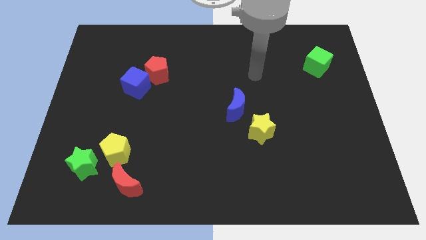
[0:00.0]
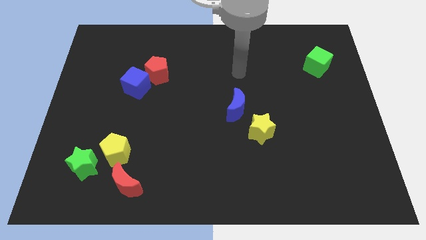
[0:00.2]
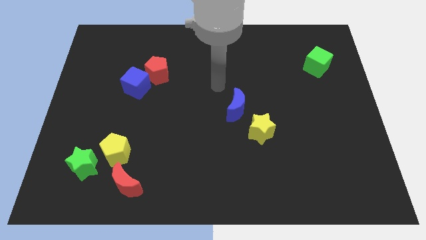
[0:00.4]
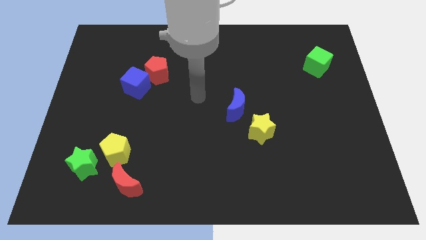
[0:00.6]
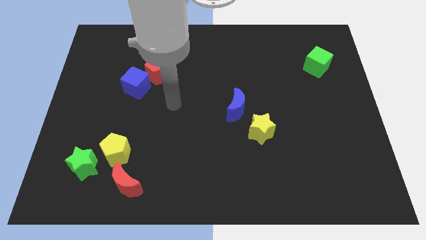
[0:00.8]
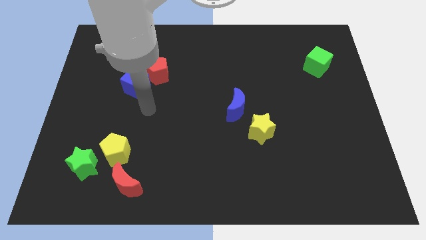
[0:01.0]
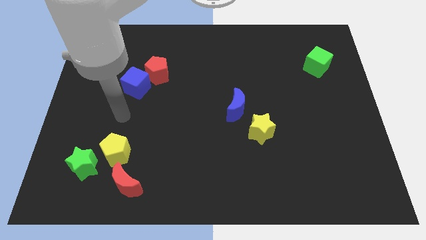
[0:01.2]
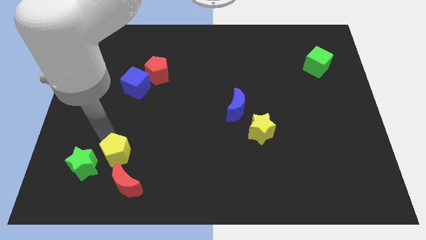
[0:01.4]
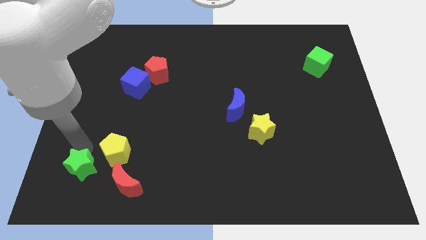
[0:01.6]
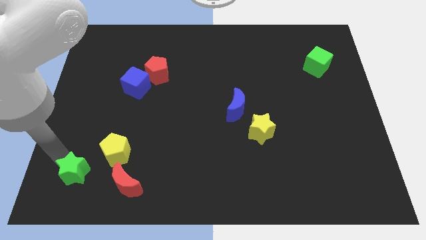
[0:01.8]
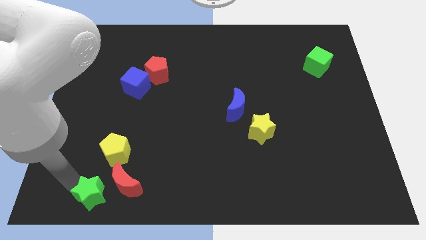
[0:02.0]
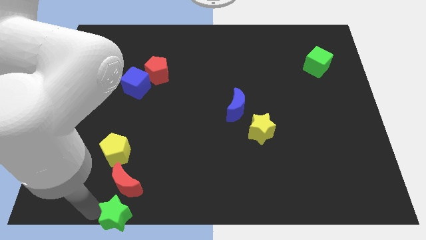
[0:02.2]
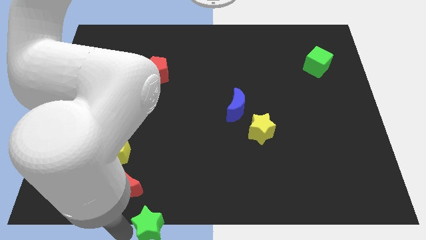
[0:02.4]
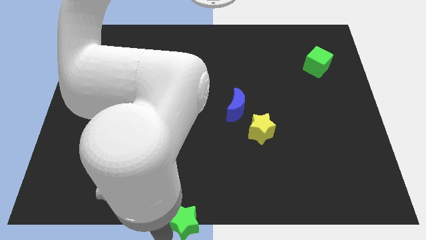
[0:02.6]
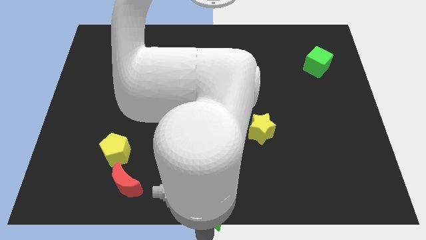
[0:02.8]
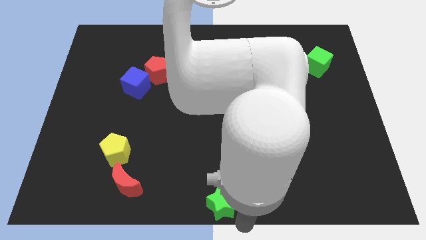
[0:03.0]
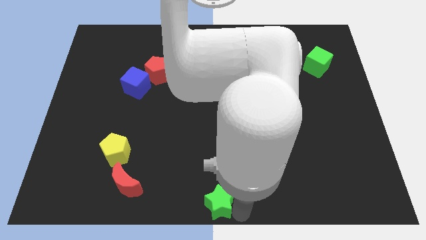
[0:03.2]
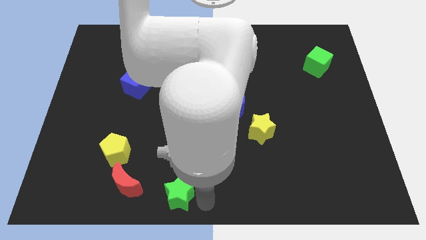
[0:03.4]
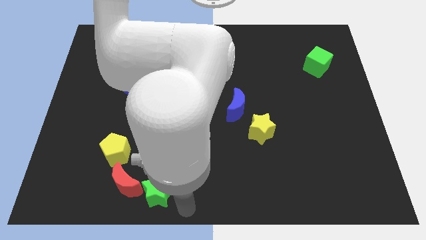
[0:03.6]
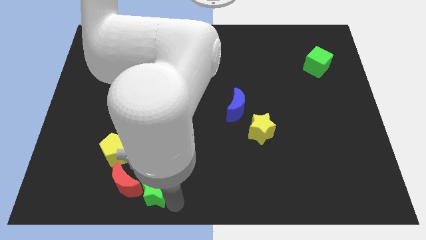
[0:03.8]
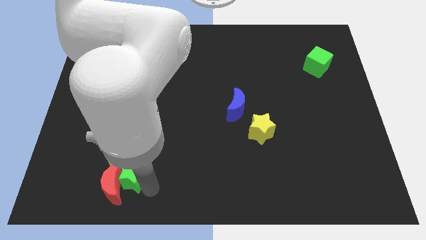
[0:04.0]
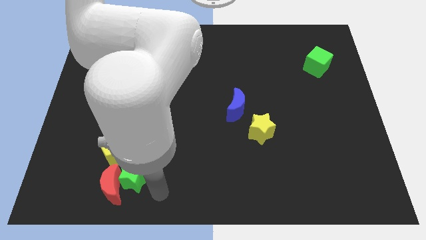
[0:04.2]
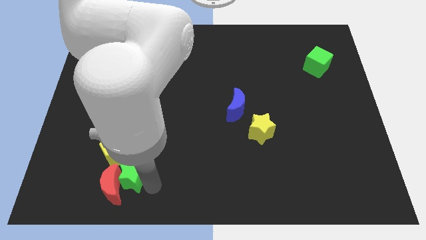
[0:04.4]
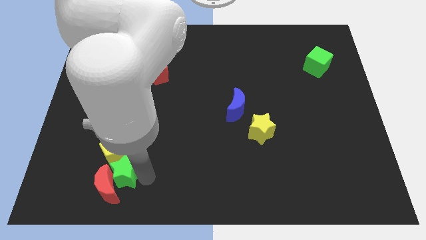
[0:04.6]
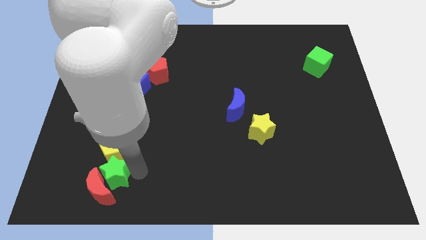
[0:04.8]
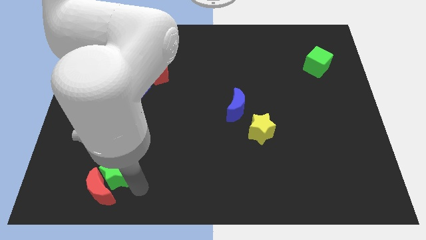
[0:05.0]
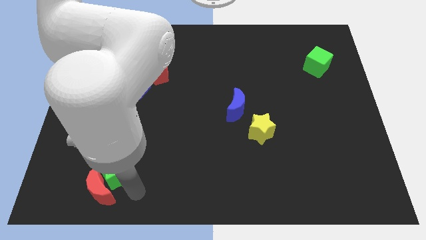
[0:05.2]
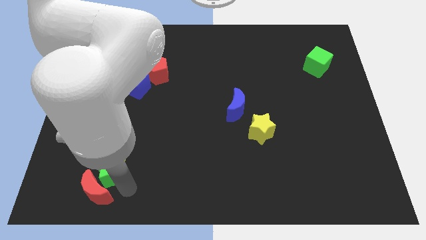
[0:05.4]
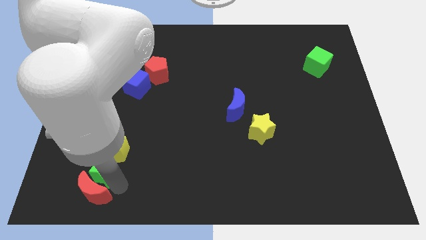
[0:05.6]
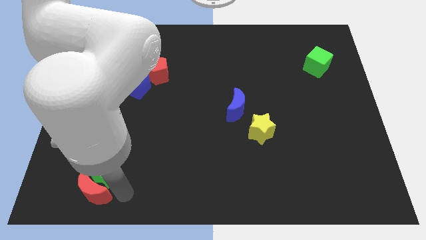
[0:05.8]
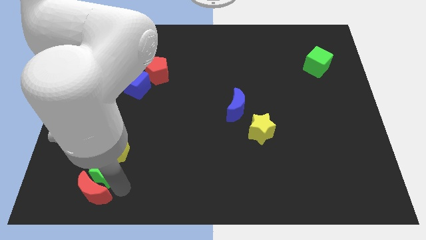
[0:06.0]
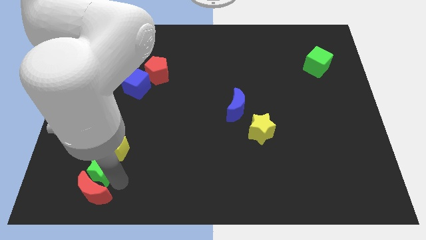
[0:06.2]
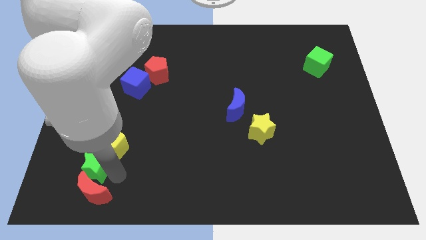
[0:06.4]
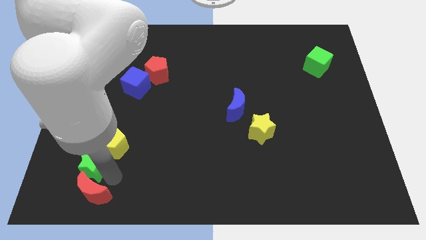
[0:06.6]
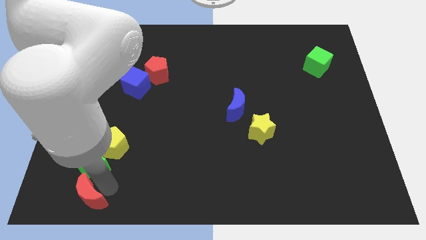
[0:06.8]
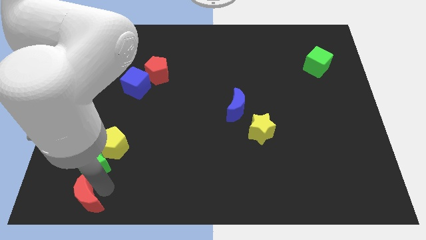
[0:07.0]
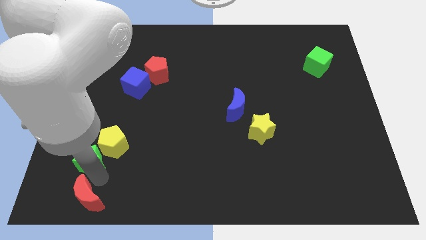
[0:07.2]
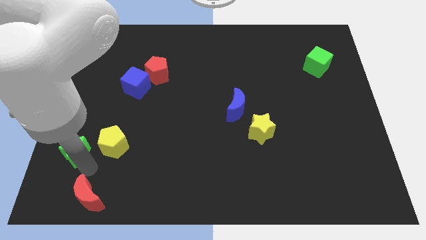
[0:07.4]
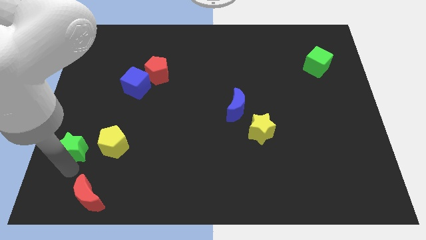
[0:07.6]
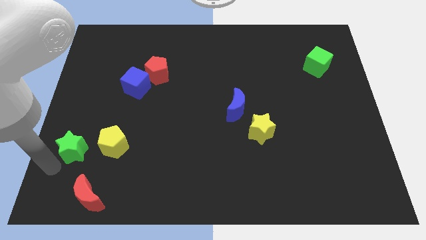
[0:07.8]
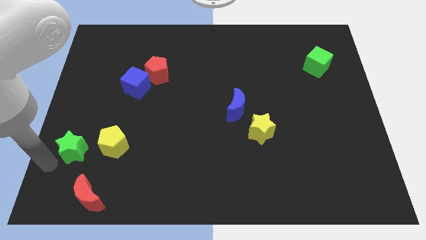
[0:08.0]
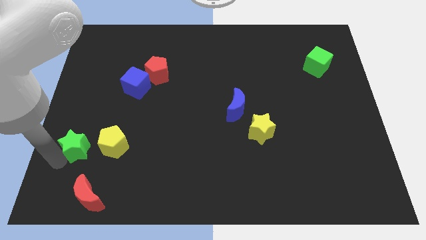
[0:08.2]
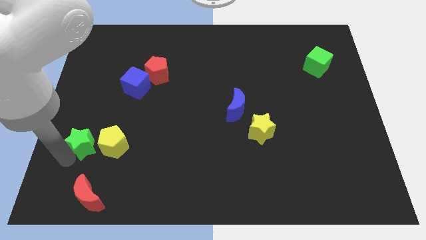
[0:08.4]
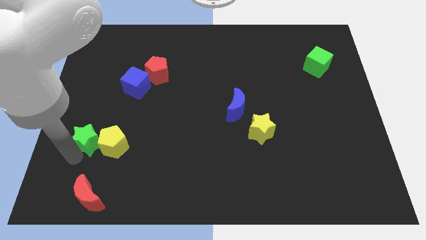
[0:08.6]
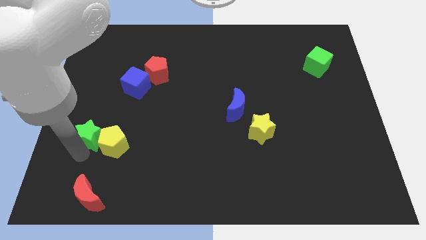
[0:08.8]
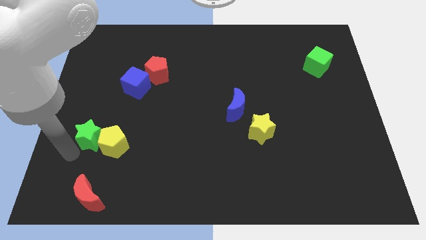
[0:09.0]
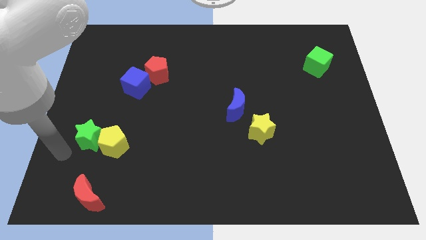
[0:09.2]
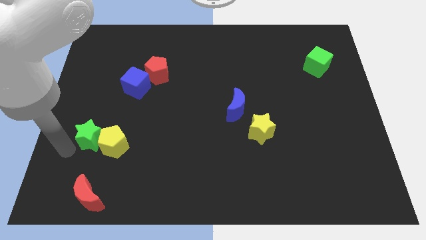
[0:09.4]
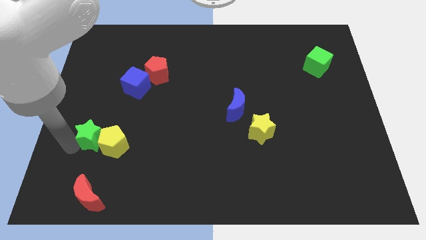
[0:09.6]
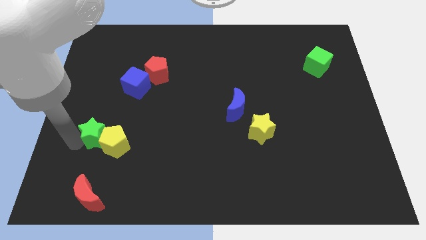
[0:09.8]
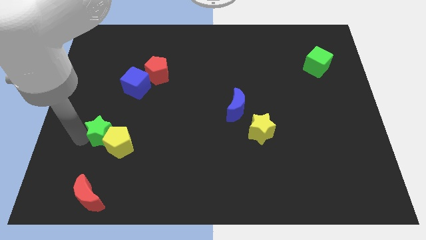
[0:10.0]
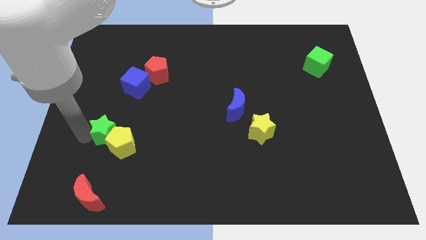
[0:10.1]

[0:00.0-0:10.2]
move the green star a little bit upwards and then right

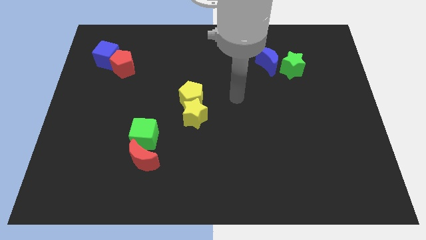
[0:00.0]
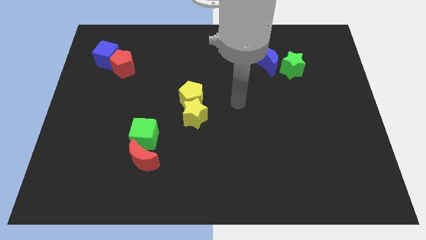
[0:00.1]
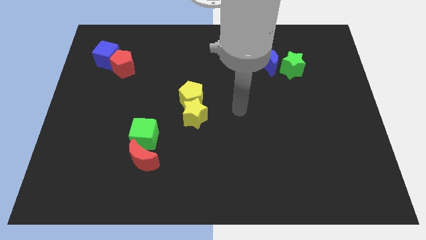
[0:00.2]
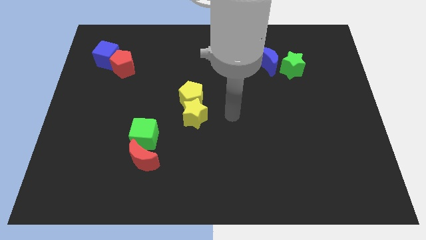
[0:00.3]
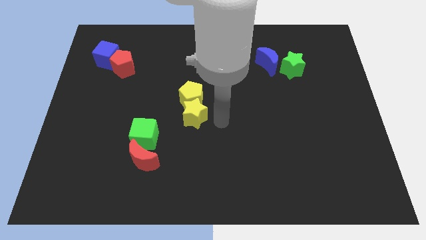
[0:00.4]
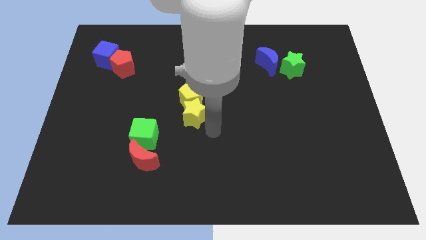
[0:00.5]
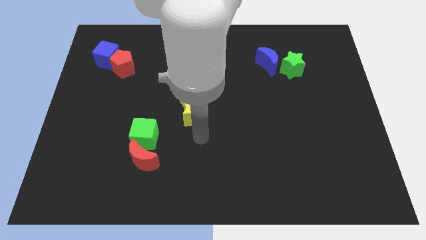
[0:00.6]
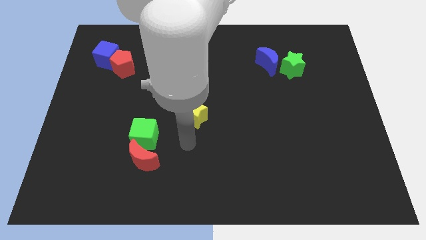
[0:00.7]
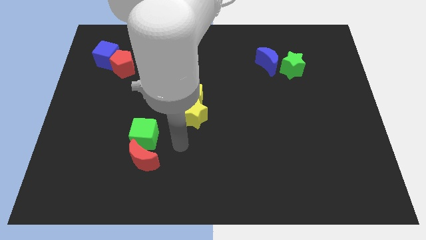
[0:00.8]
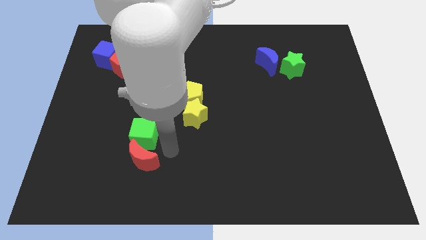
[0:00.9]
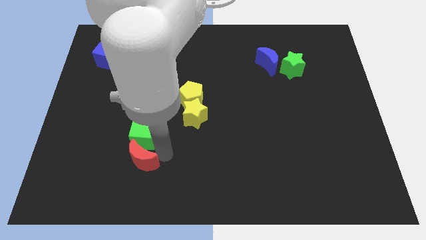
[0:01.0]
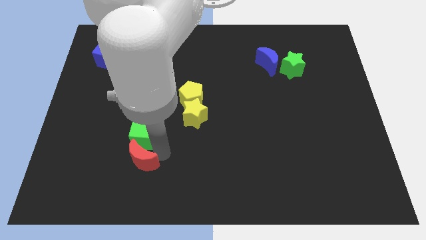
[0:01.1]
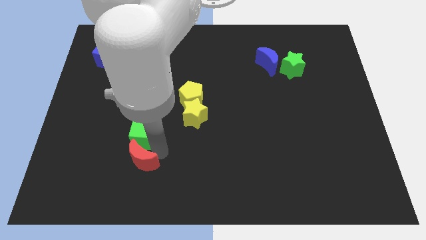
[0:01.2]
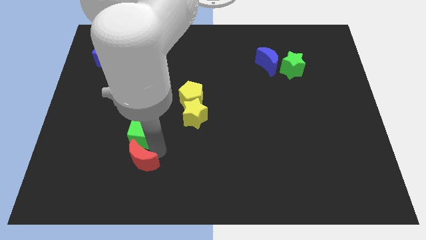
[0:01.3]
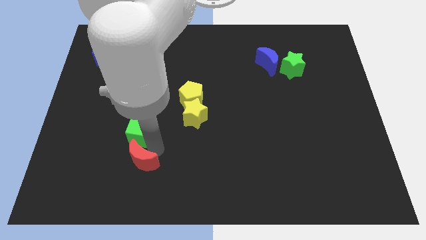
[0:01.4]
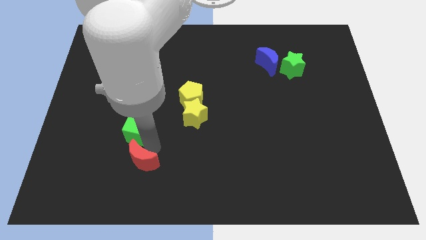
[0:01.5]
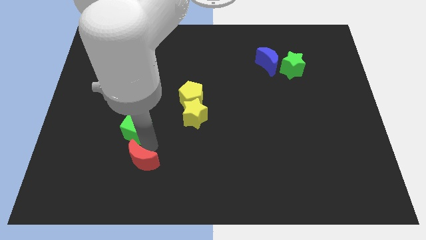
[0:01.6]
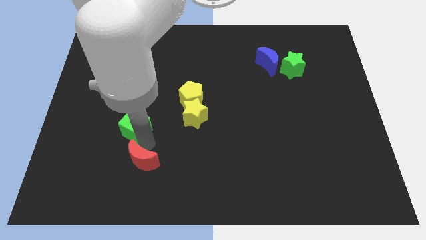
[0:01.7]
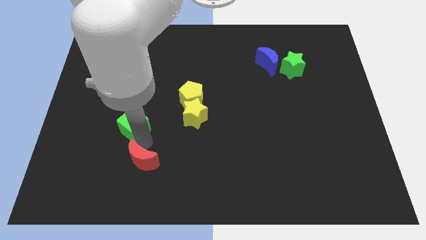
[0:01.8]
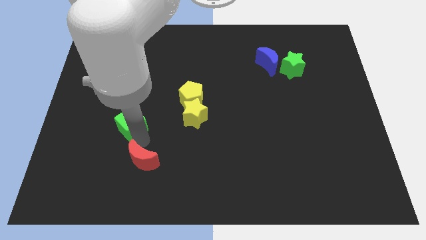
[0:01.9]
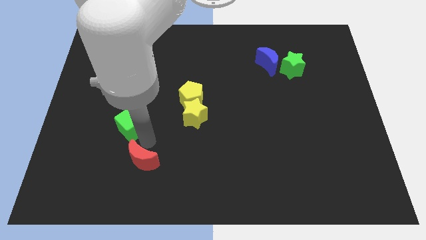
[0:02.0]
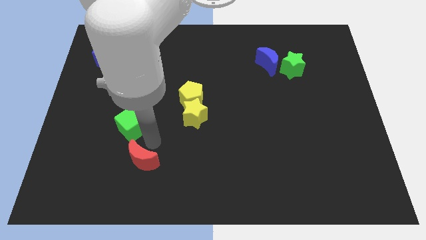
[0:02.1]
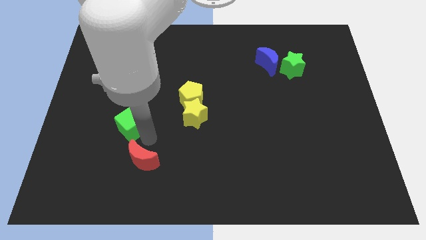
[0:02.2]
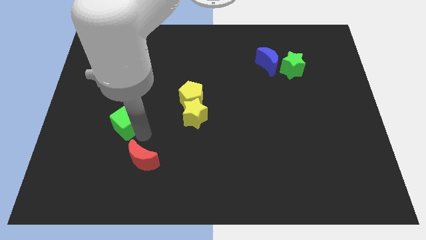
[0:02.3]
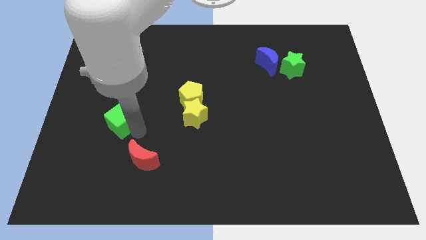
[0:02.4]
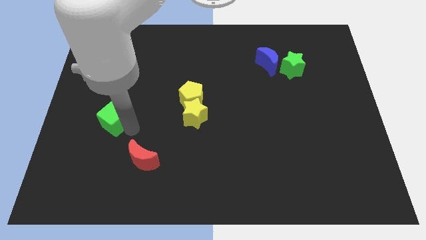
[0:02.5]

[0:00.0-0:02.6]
move the green cube upwards and left diagonally a little
